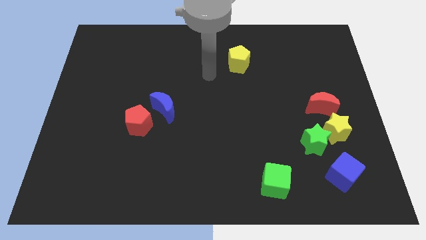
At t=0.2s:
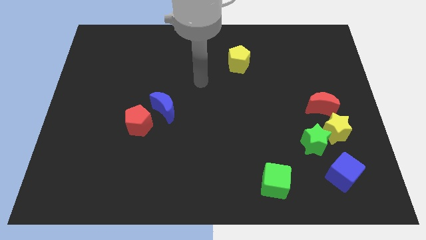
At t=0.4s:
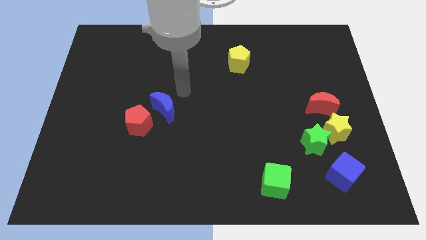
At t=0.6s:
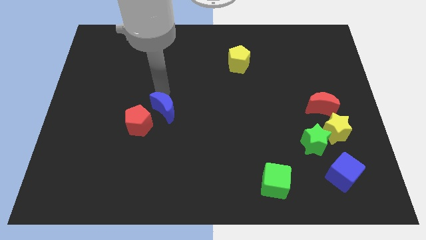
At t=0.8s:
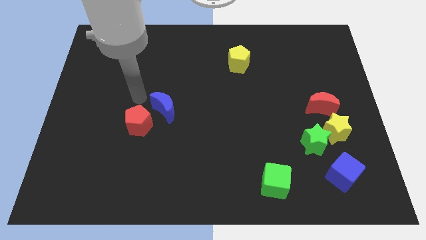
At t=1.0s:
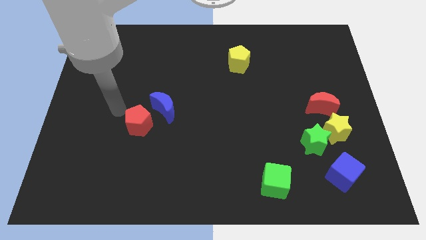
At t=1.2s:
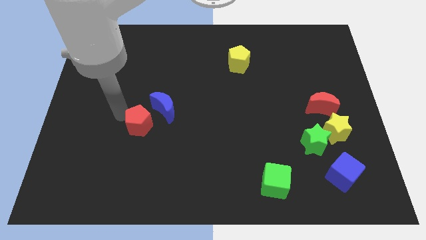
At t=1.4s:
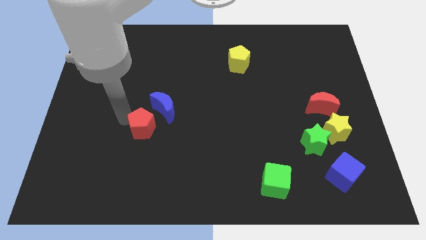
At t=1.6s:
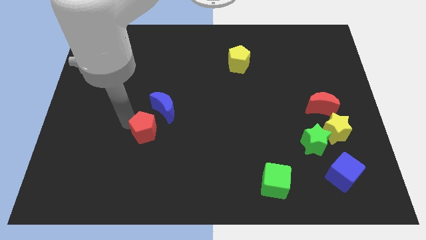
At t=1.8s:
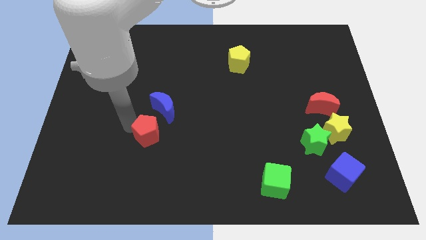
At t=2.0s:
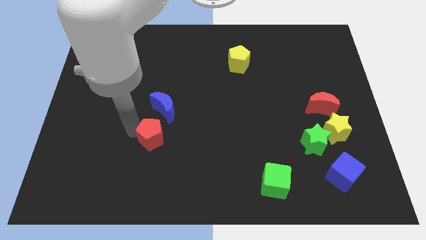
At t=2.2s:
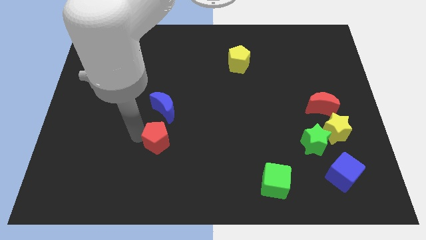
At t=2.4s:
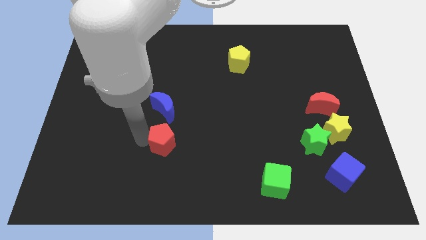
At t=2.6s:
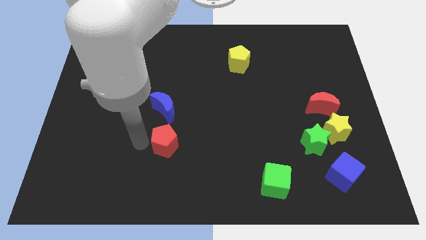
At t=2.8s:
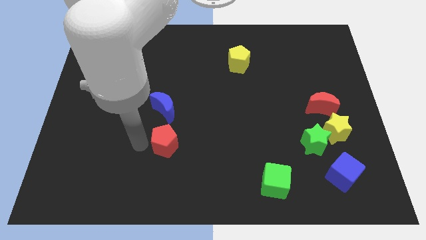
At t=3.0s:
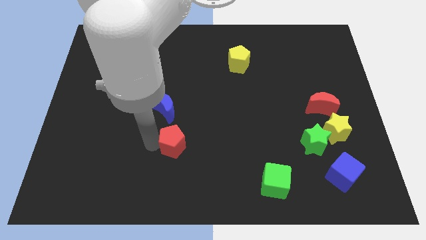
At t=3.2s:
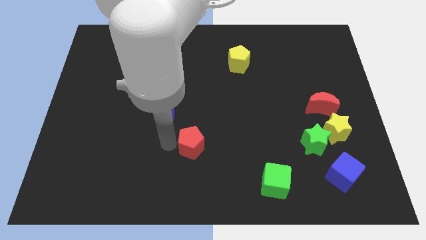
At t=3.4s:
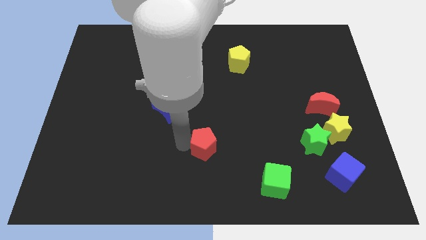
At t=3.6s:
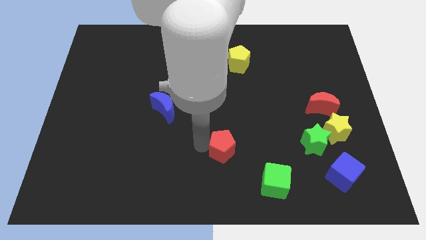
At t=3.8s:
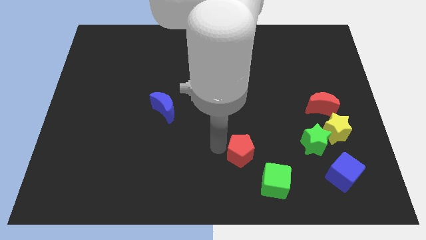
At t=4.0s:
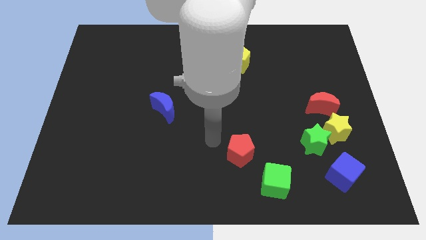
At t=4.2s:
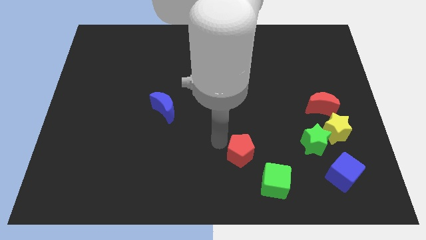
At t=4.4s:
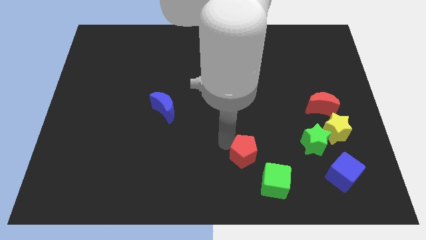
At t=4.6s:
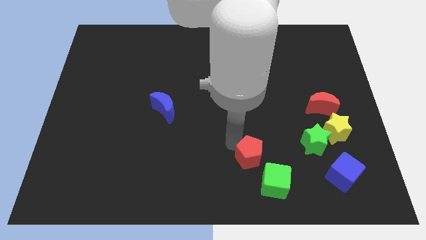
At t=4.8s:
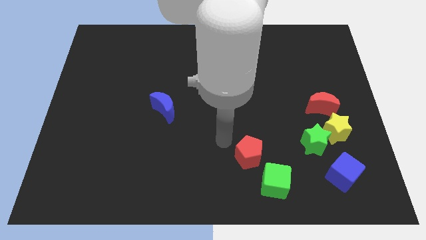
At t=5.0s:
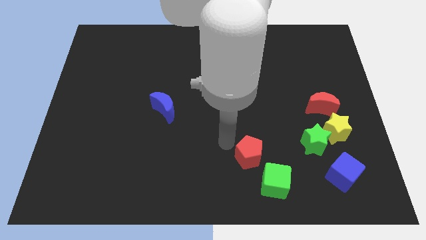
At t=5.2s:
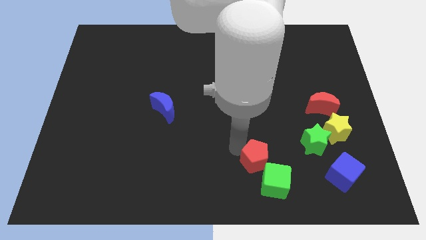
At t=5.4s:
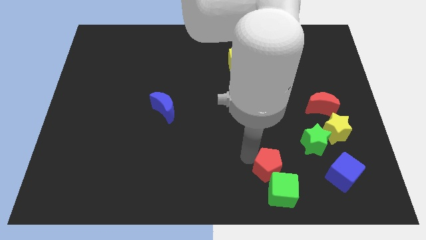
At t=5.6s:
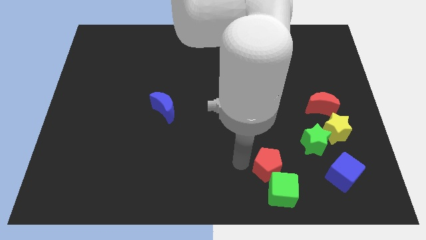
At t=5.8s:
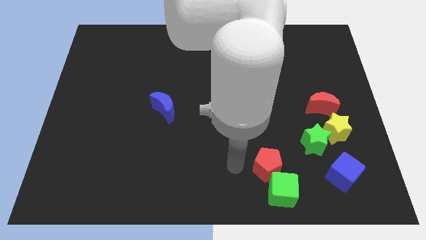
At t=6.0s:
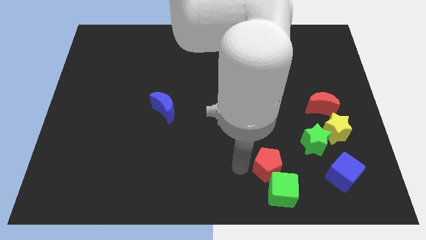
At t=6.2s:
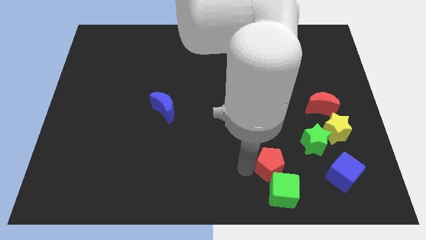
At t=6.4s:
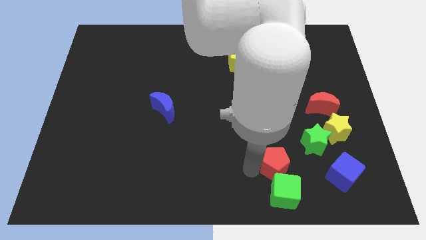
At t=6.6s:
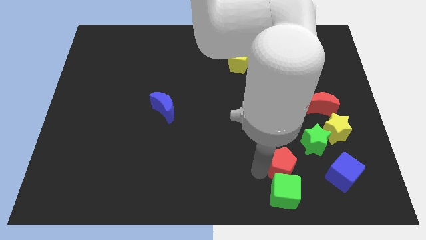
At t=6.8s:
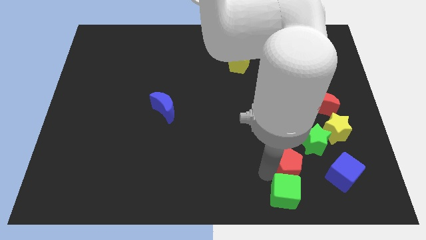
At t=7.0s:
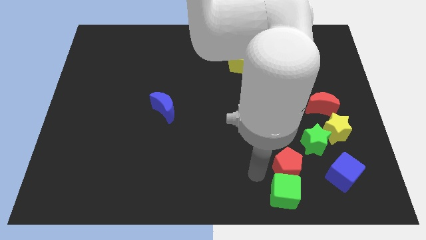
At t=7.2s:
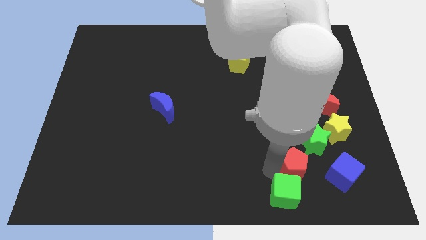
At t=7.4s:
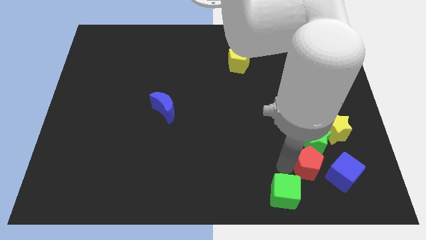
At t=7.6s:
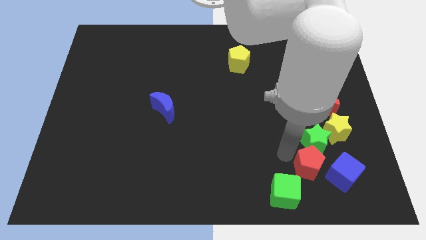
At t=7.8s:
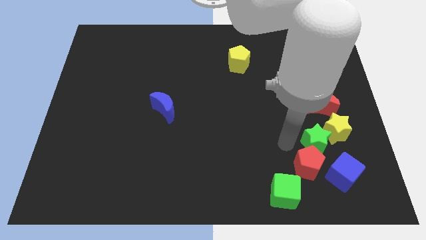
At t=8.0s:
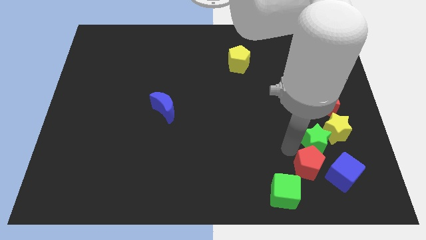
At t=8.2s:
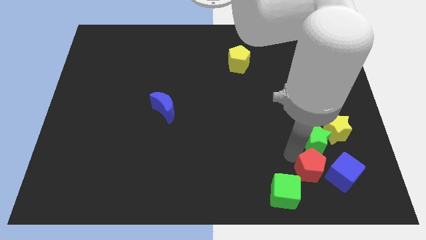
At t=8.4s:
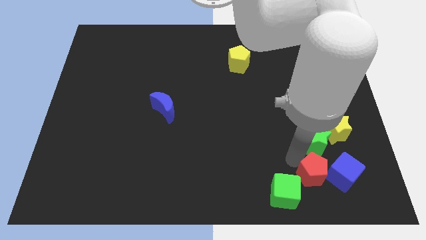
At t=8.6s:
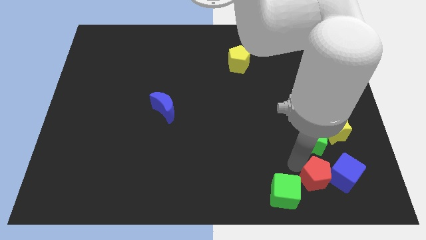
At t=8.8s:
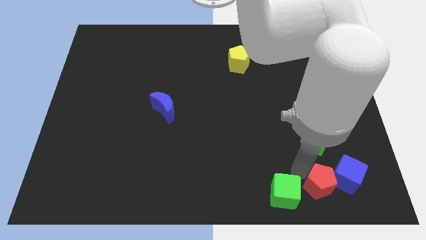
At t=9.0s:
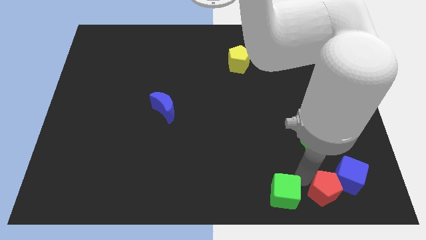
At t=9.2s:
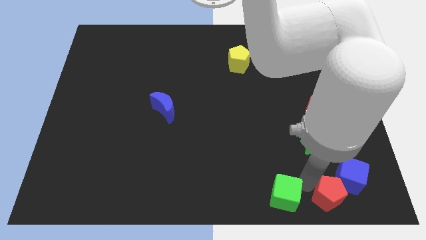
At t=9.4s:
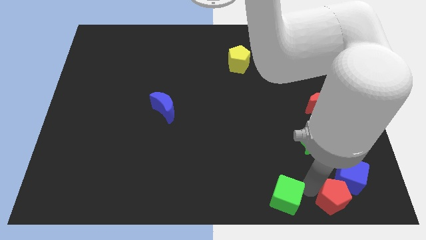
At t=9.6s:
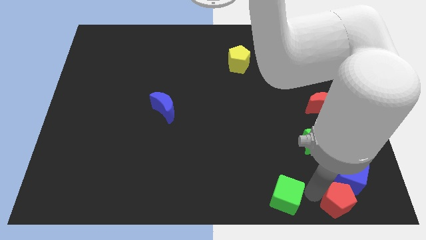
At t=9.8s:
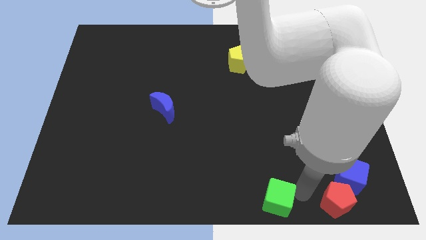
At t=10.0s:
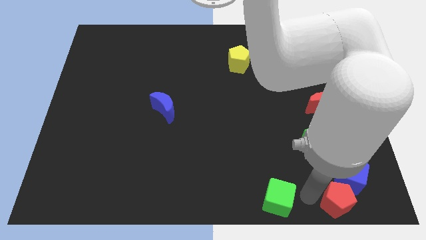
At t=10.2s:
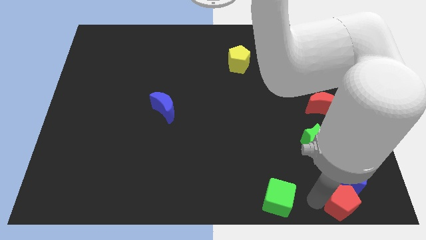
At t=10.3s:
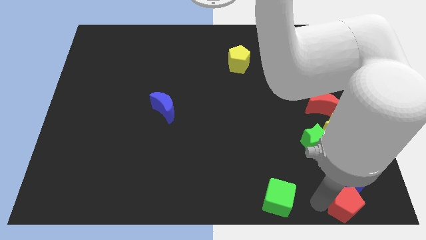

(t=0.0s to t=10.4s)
push the red pentagon to the lower right corner
